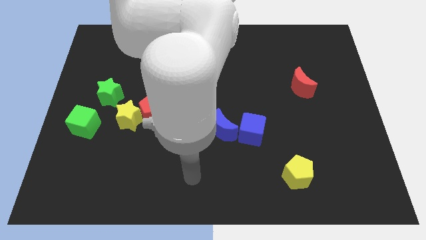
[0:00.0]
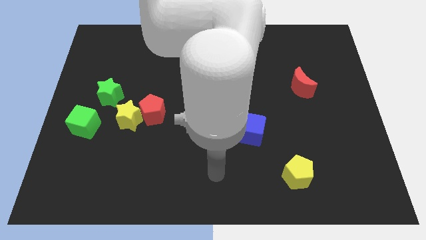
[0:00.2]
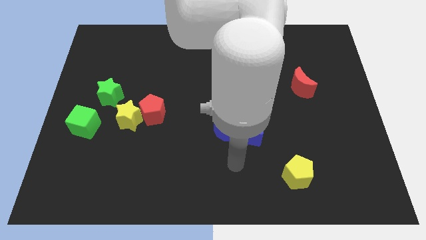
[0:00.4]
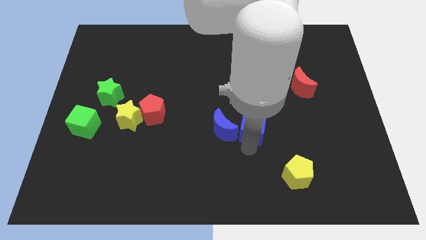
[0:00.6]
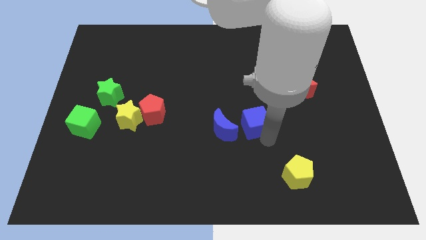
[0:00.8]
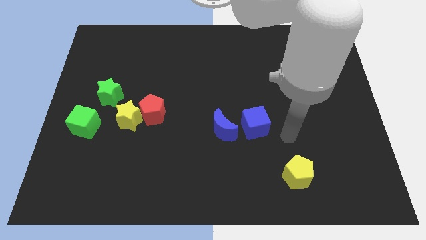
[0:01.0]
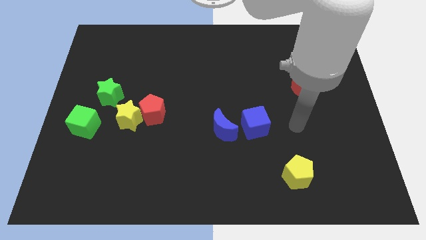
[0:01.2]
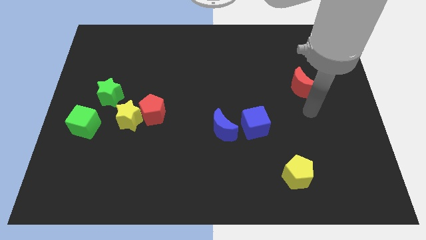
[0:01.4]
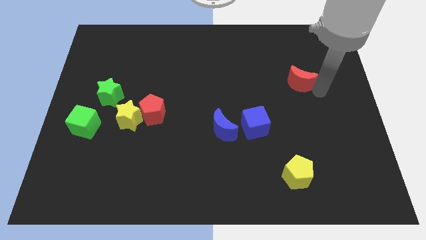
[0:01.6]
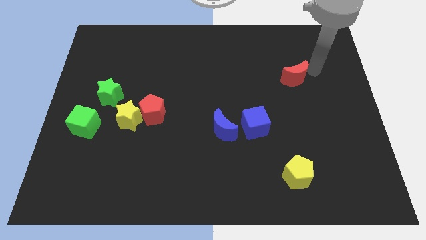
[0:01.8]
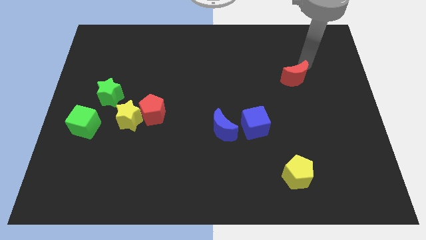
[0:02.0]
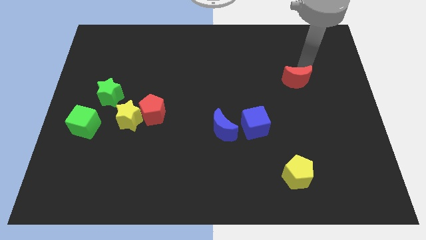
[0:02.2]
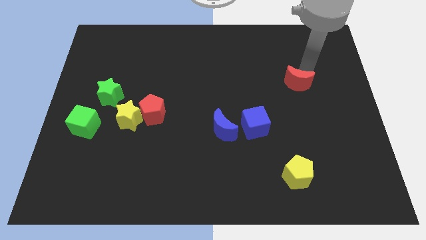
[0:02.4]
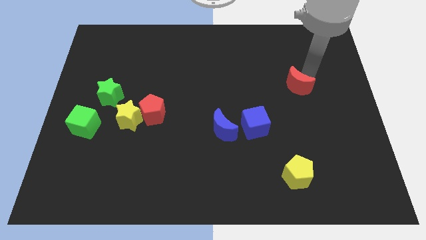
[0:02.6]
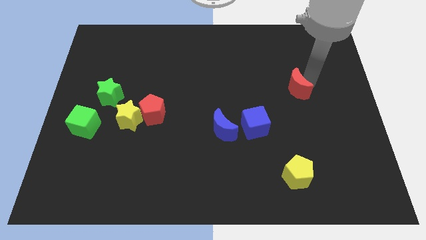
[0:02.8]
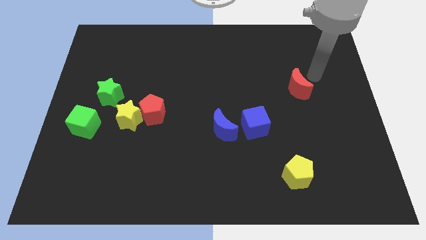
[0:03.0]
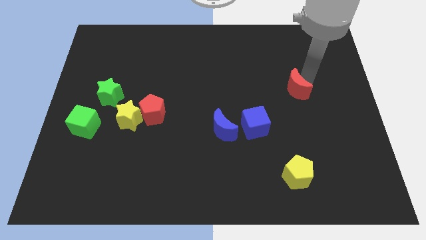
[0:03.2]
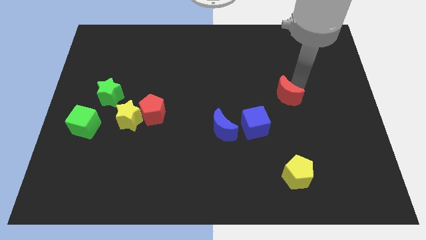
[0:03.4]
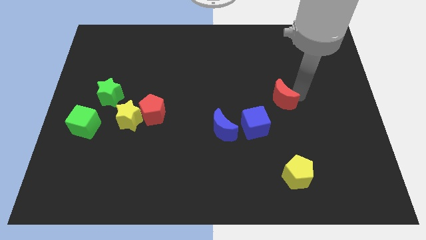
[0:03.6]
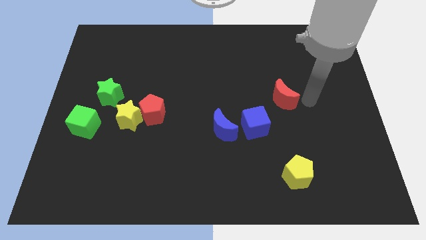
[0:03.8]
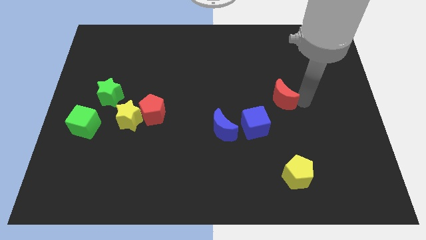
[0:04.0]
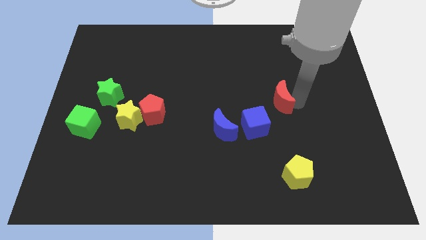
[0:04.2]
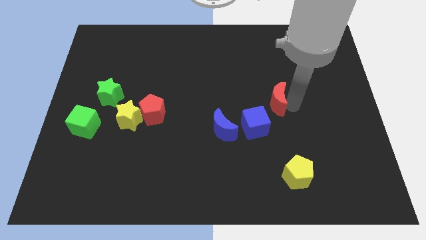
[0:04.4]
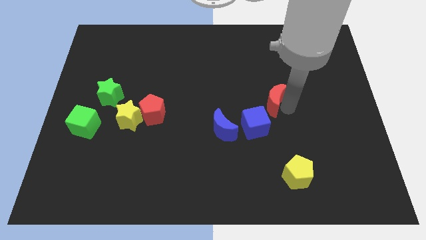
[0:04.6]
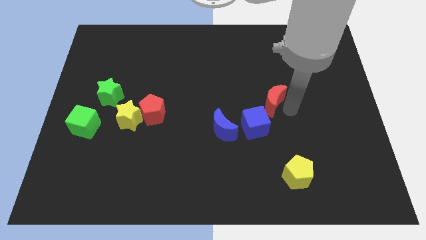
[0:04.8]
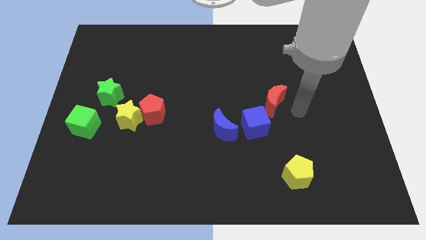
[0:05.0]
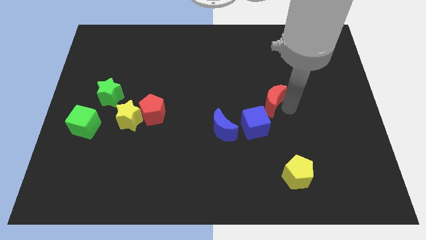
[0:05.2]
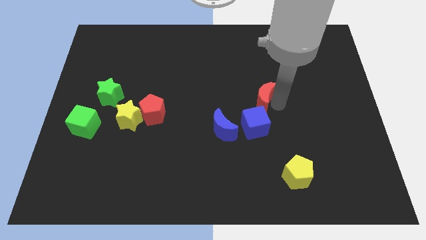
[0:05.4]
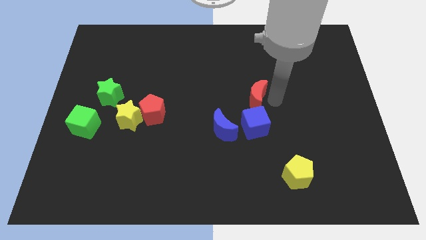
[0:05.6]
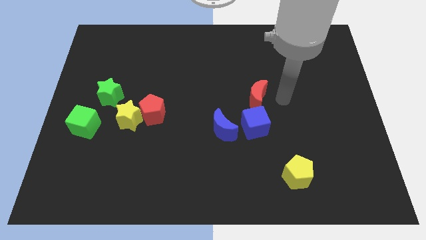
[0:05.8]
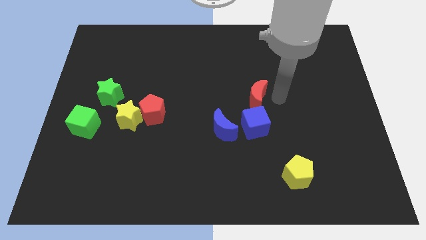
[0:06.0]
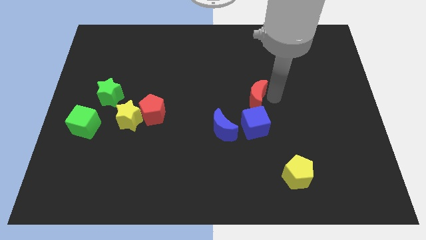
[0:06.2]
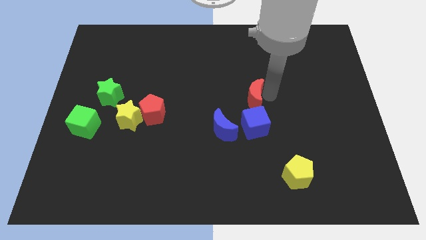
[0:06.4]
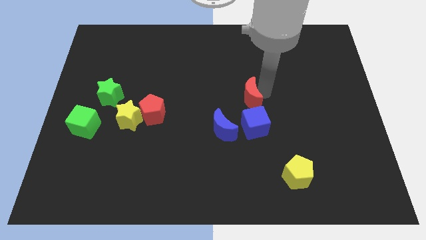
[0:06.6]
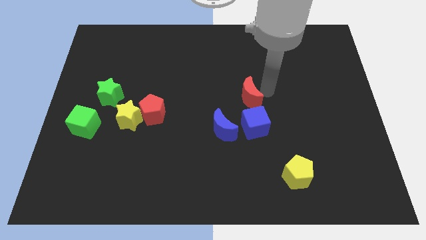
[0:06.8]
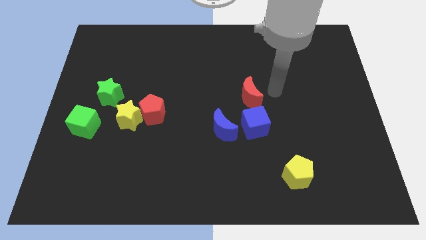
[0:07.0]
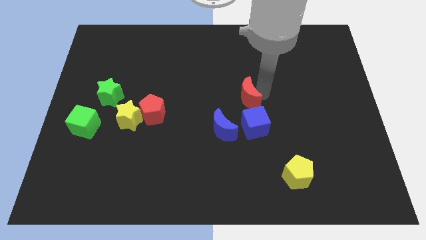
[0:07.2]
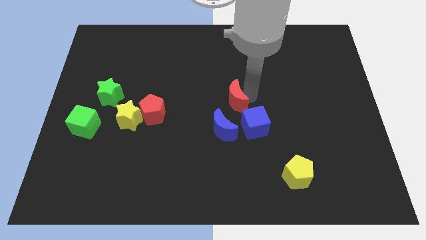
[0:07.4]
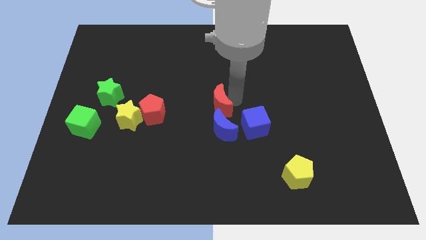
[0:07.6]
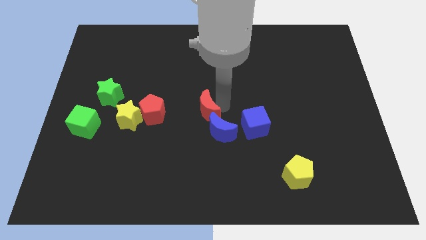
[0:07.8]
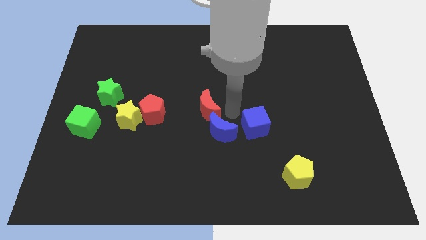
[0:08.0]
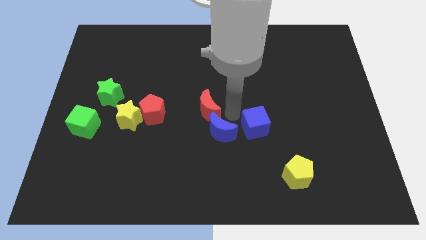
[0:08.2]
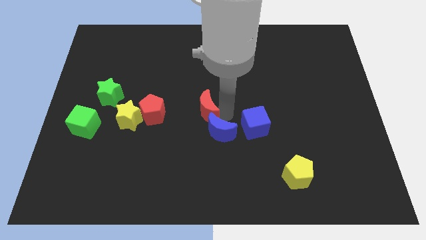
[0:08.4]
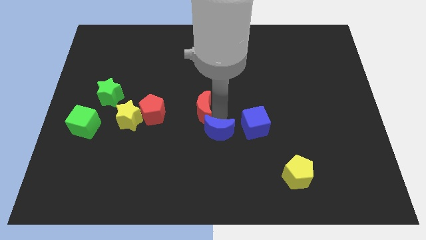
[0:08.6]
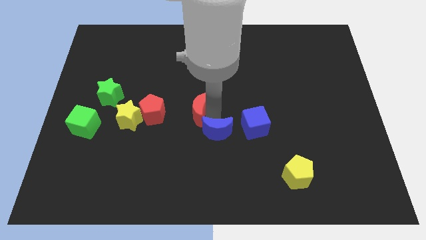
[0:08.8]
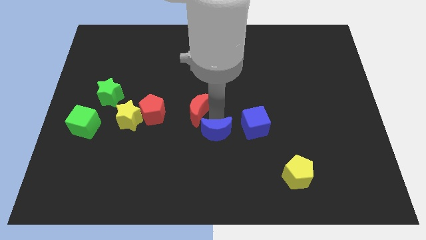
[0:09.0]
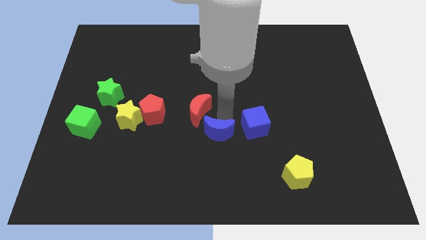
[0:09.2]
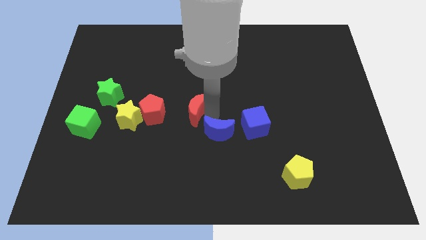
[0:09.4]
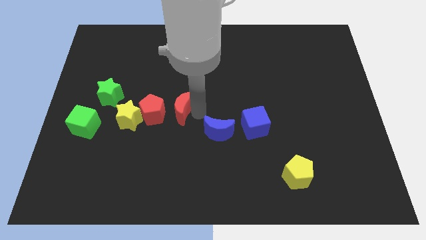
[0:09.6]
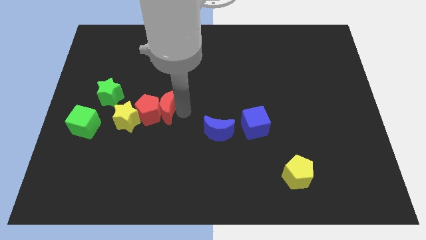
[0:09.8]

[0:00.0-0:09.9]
move the red moon diagonally up and to the right of the yellow star

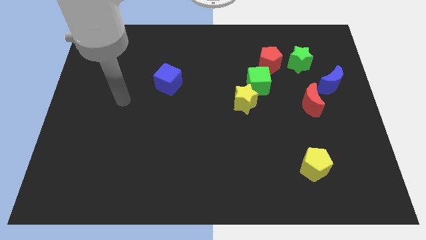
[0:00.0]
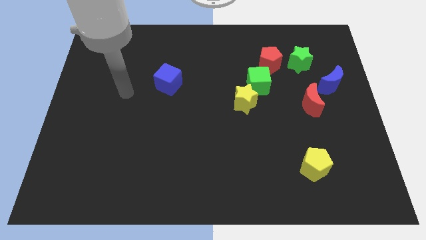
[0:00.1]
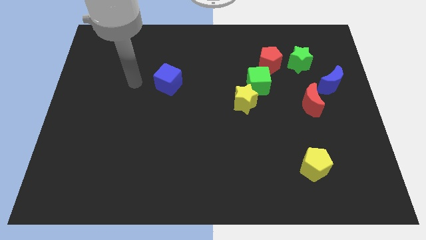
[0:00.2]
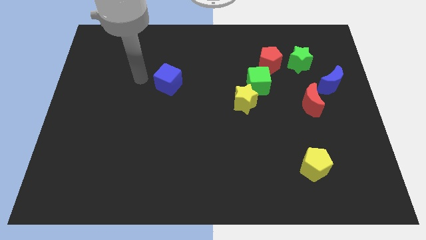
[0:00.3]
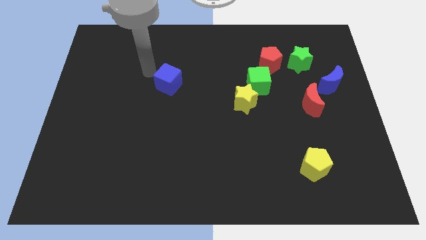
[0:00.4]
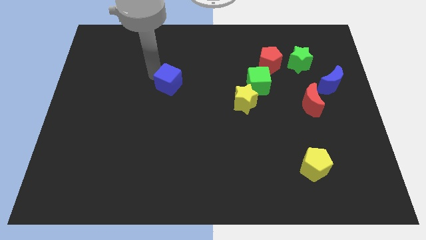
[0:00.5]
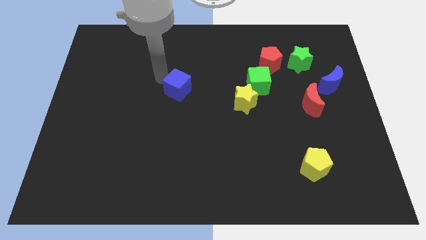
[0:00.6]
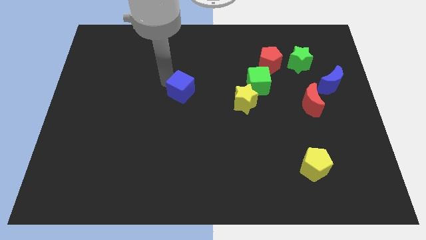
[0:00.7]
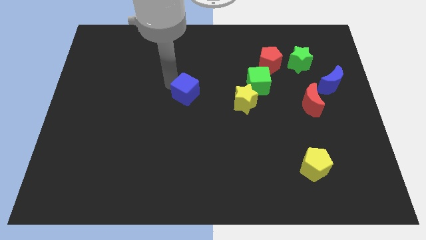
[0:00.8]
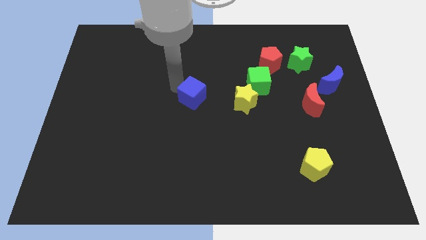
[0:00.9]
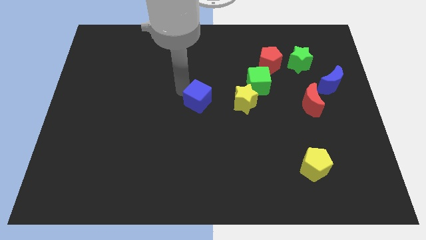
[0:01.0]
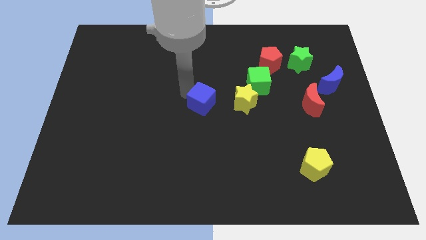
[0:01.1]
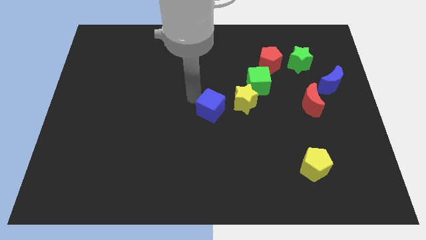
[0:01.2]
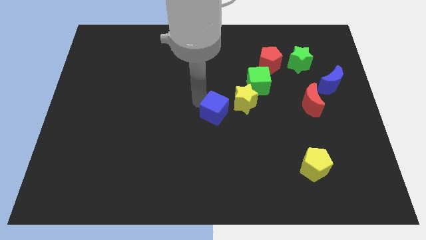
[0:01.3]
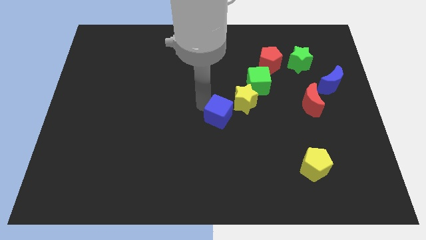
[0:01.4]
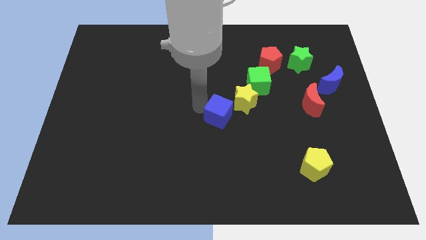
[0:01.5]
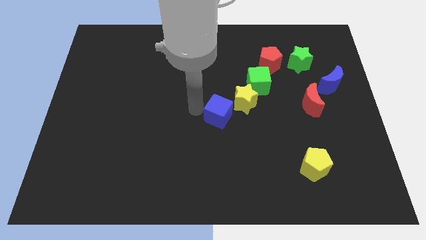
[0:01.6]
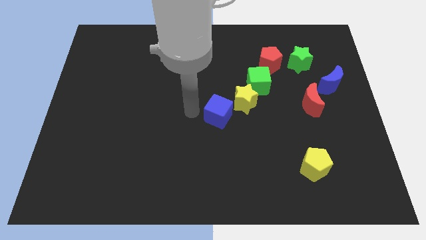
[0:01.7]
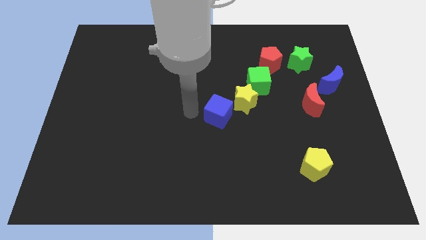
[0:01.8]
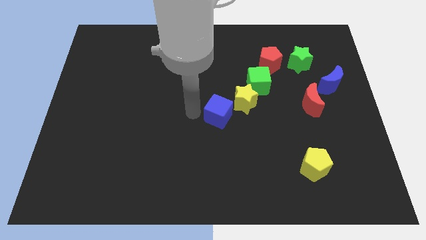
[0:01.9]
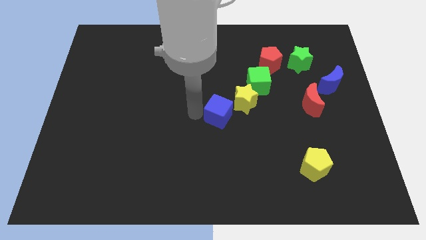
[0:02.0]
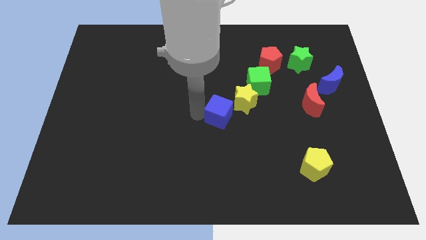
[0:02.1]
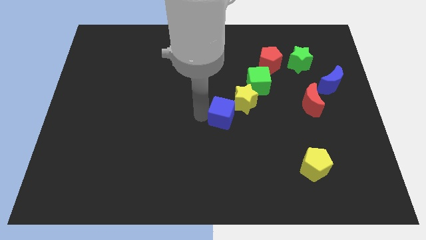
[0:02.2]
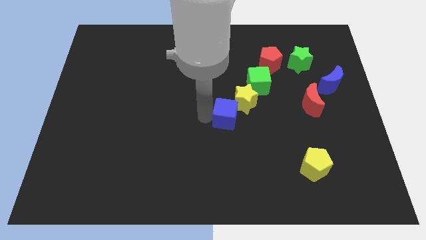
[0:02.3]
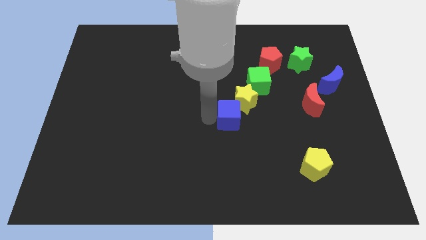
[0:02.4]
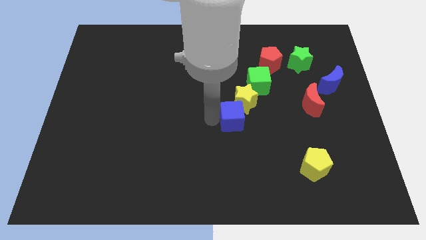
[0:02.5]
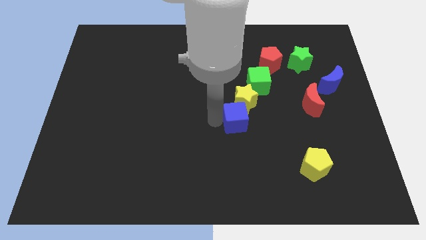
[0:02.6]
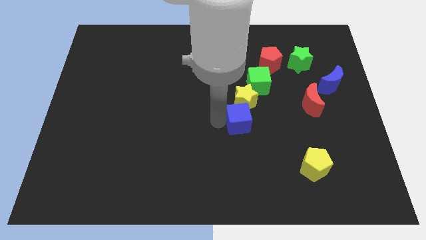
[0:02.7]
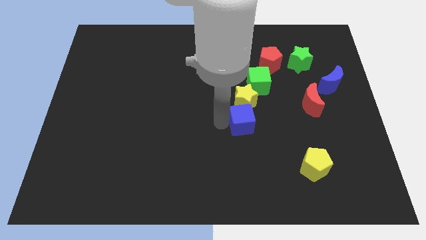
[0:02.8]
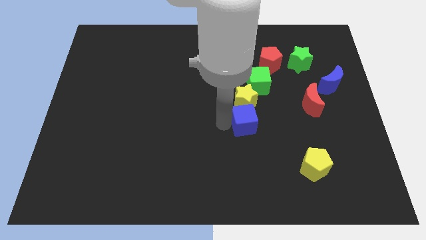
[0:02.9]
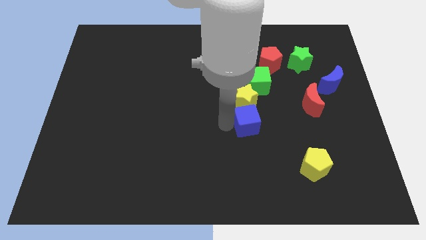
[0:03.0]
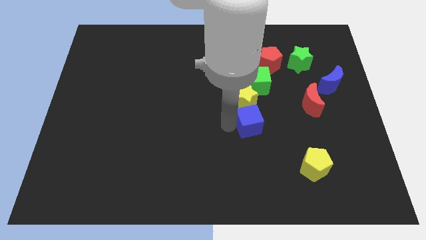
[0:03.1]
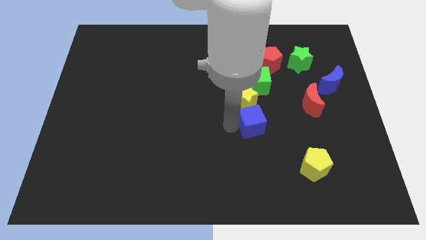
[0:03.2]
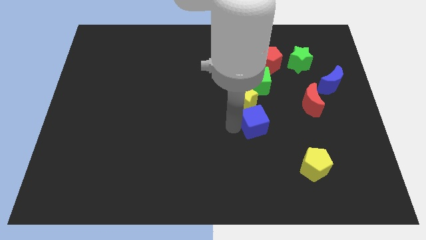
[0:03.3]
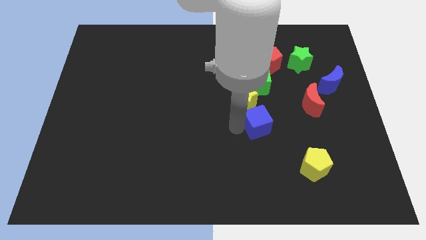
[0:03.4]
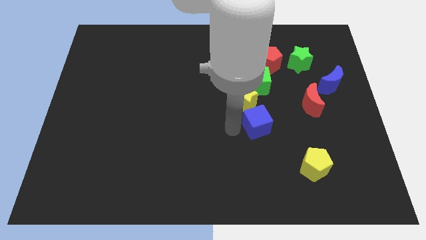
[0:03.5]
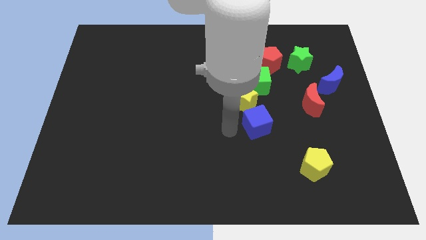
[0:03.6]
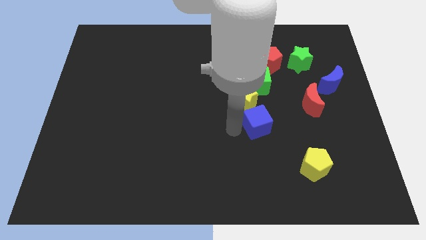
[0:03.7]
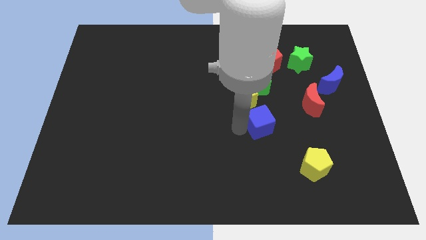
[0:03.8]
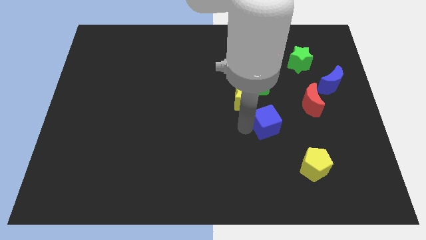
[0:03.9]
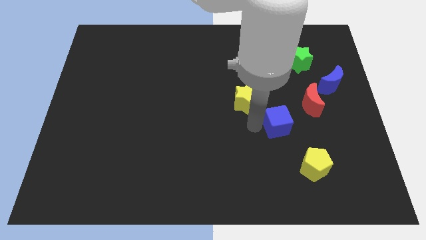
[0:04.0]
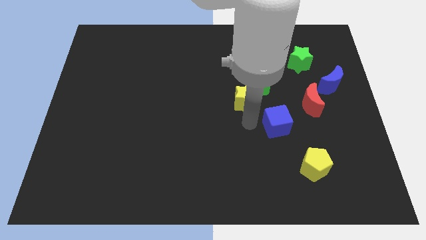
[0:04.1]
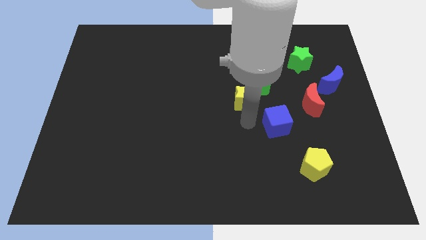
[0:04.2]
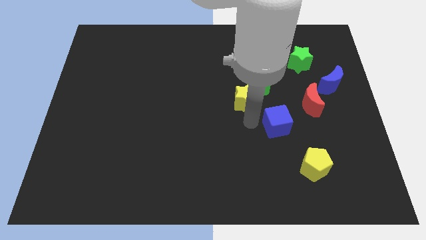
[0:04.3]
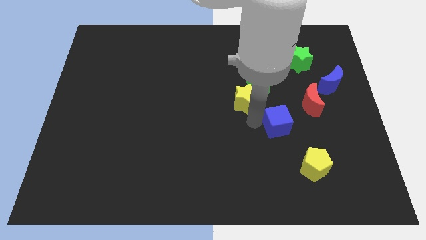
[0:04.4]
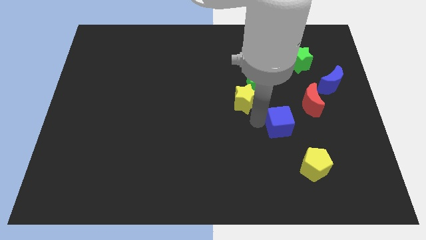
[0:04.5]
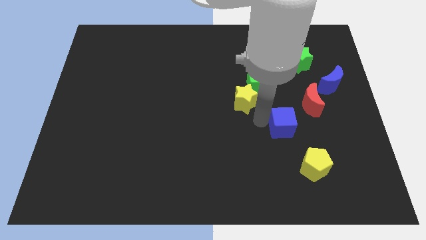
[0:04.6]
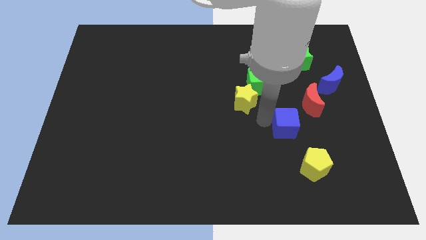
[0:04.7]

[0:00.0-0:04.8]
move the blue cube to the top of the yellow pentagon
